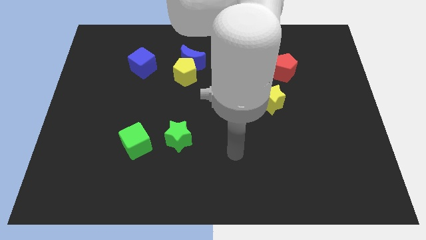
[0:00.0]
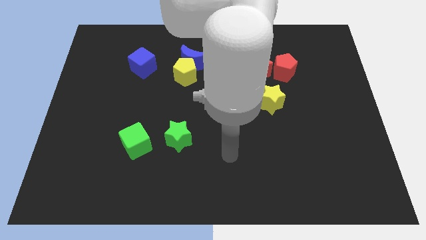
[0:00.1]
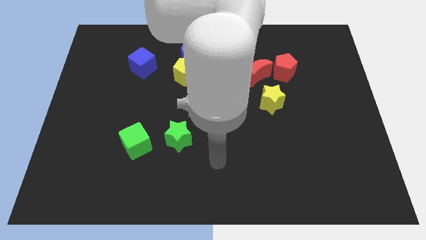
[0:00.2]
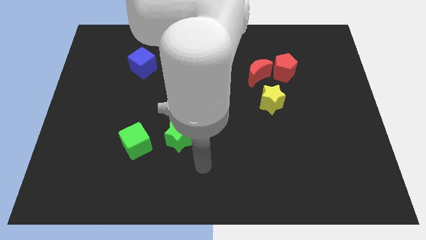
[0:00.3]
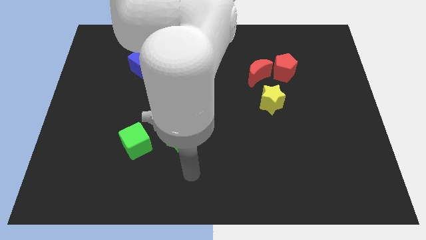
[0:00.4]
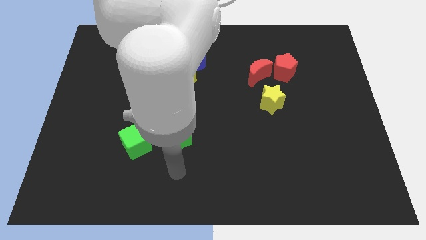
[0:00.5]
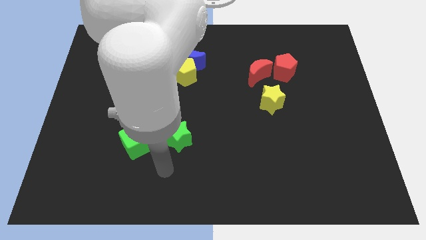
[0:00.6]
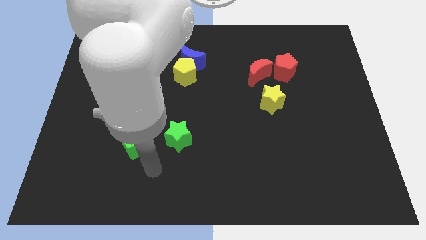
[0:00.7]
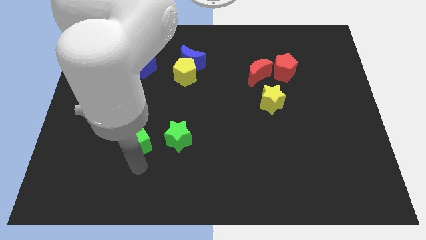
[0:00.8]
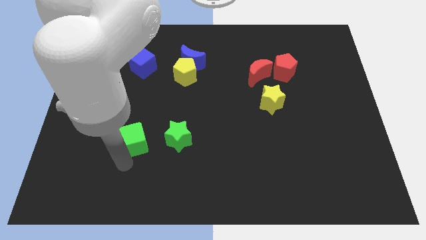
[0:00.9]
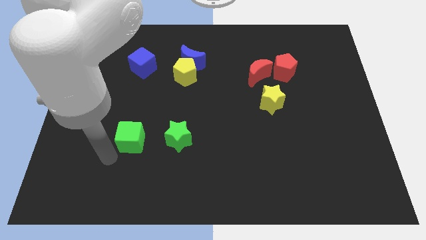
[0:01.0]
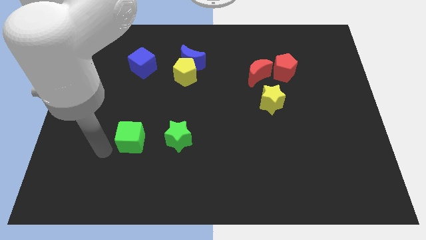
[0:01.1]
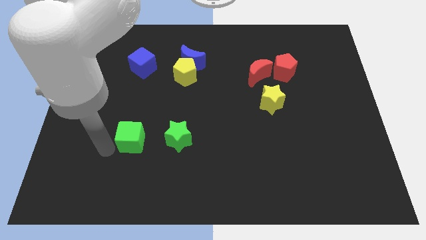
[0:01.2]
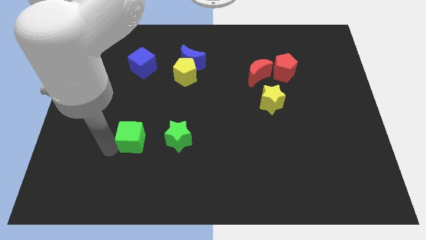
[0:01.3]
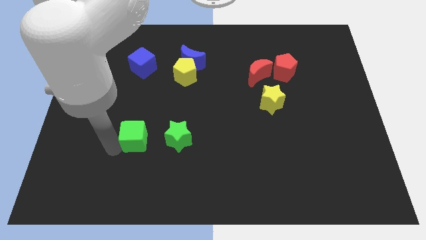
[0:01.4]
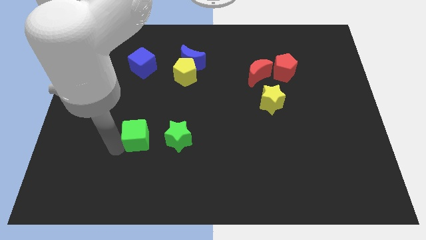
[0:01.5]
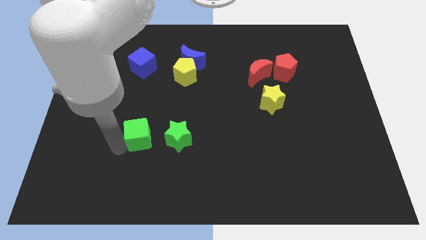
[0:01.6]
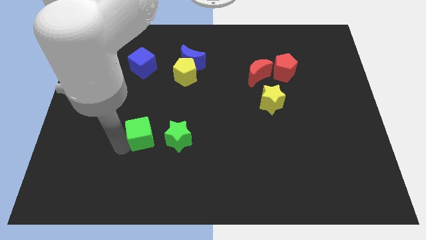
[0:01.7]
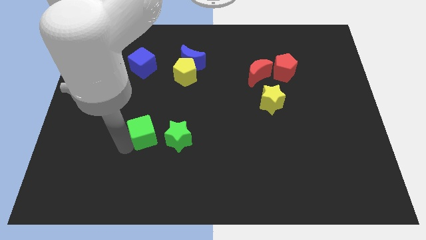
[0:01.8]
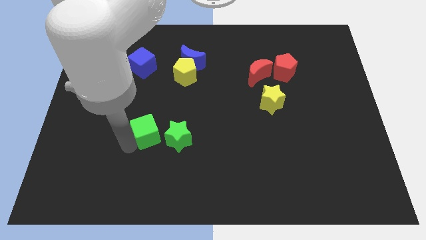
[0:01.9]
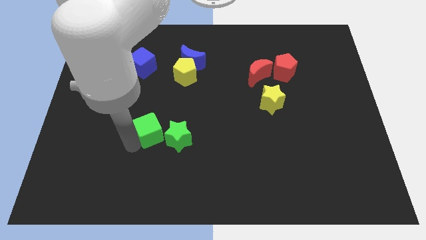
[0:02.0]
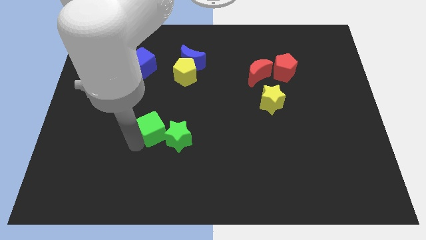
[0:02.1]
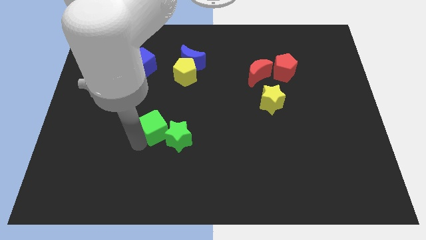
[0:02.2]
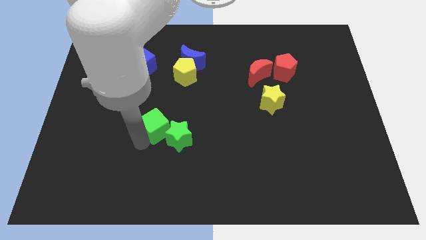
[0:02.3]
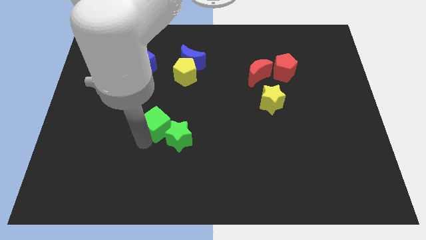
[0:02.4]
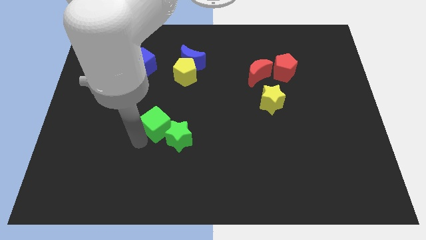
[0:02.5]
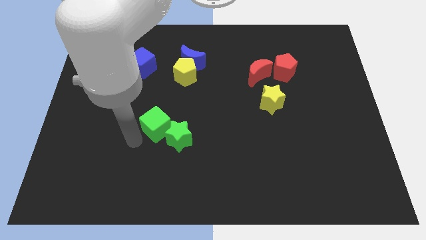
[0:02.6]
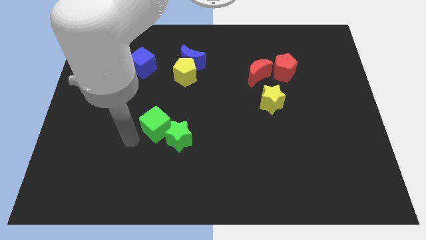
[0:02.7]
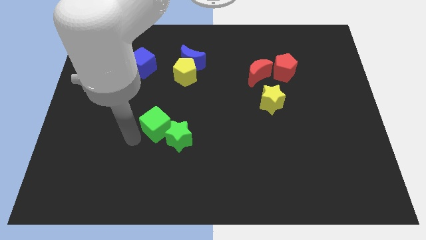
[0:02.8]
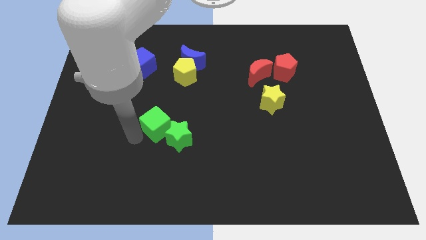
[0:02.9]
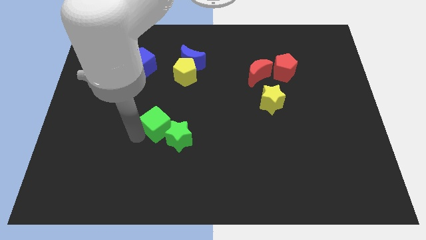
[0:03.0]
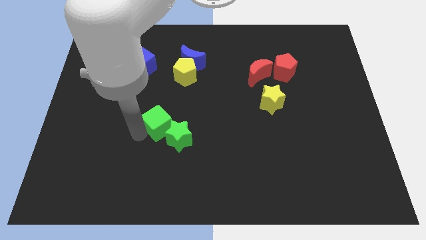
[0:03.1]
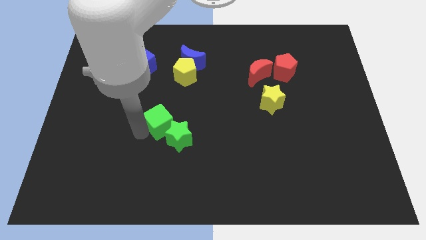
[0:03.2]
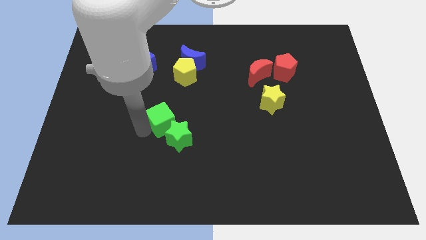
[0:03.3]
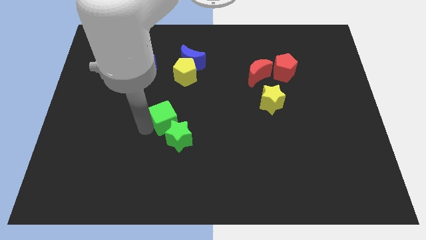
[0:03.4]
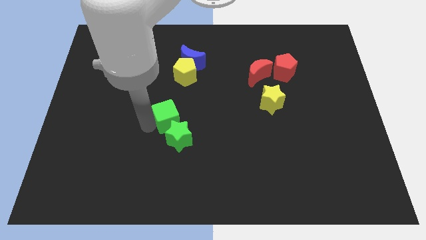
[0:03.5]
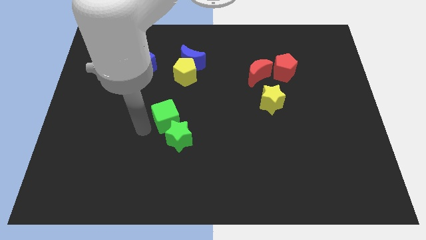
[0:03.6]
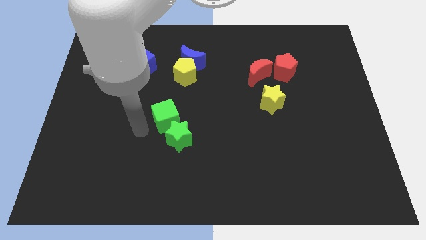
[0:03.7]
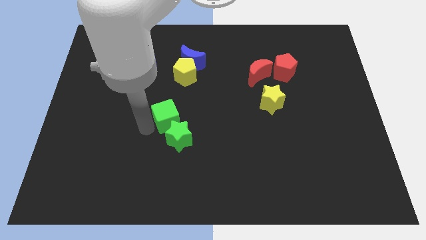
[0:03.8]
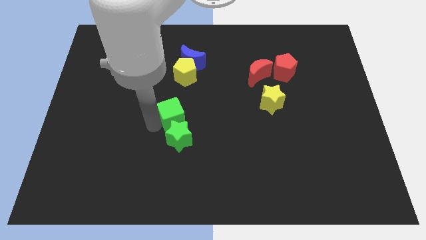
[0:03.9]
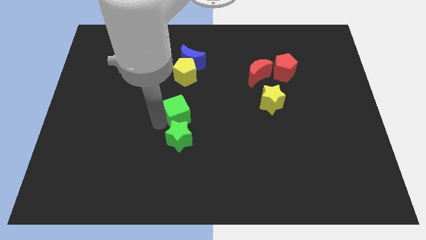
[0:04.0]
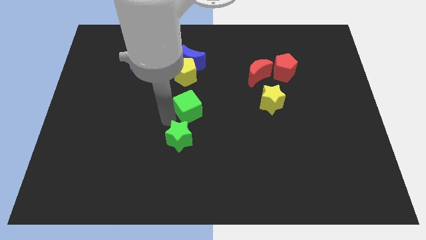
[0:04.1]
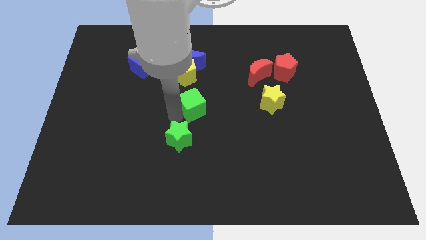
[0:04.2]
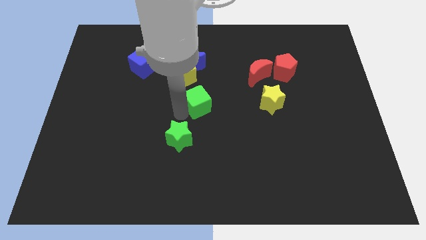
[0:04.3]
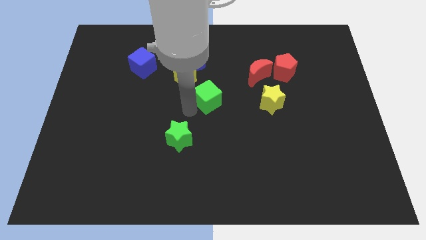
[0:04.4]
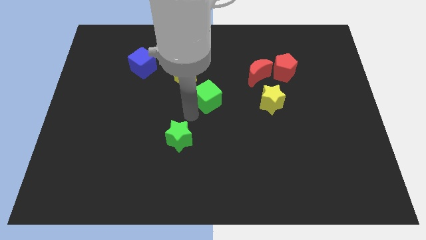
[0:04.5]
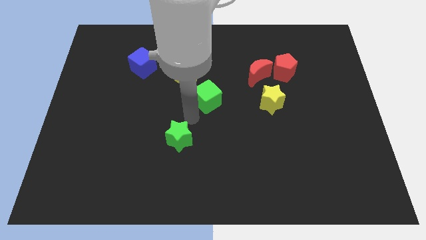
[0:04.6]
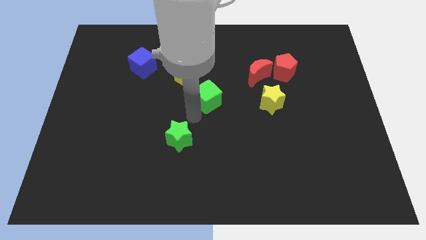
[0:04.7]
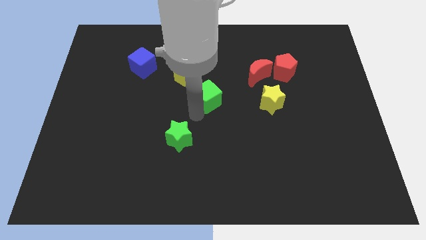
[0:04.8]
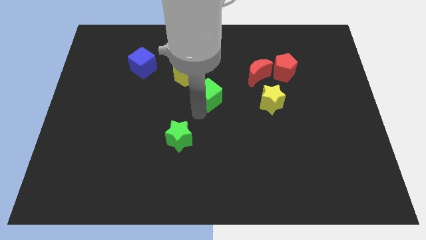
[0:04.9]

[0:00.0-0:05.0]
push the green cube diagonally up and right

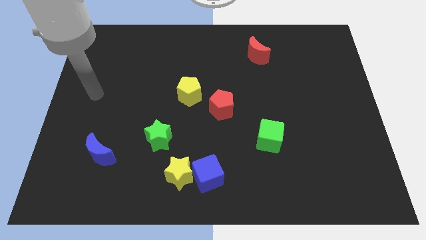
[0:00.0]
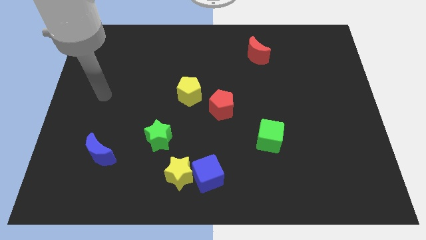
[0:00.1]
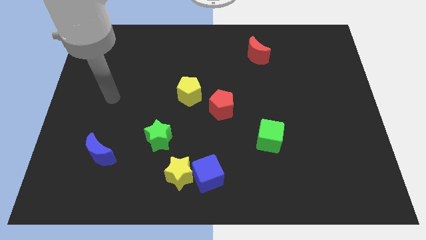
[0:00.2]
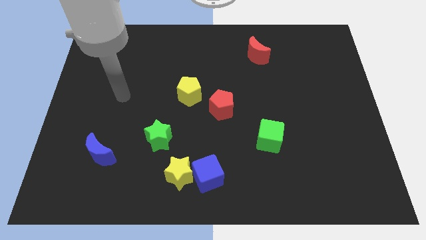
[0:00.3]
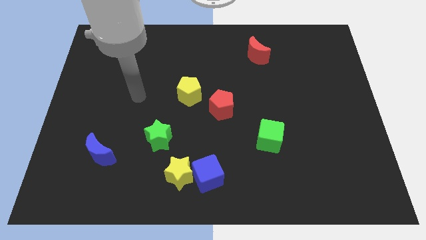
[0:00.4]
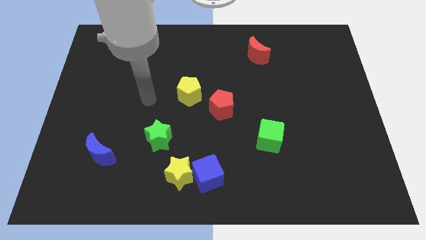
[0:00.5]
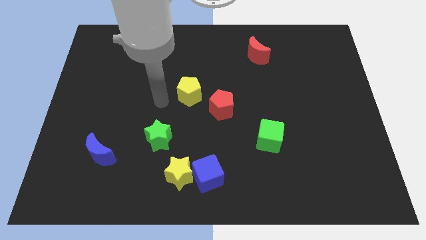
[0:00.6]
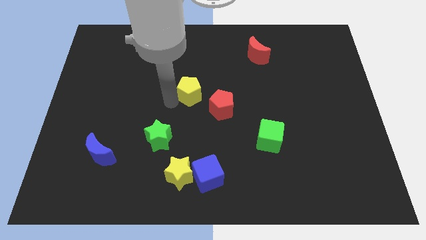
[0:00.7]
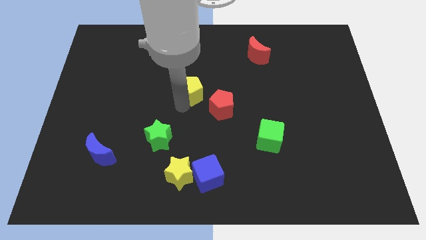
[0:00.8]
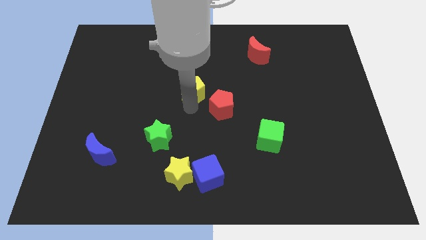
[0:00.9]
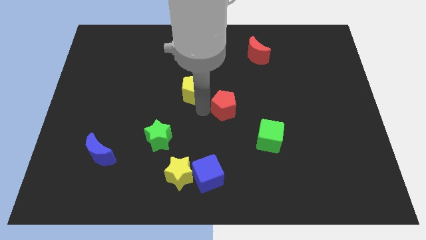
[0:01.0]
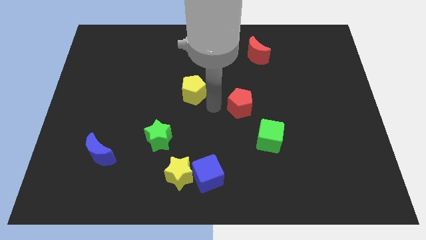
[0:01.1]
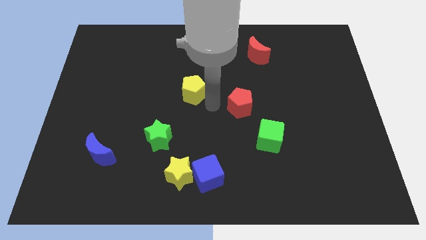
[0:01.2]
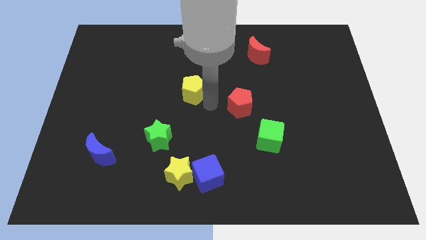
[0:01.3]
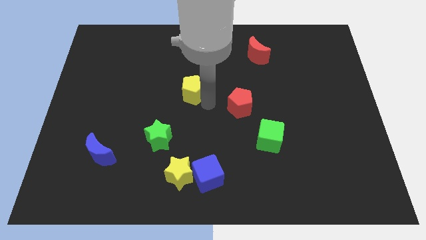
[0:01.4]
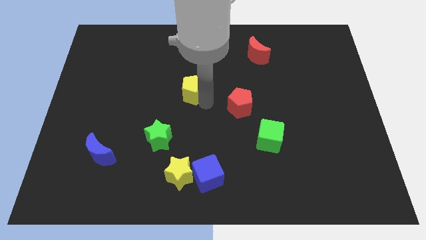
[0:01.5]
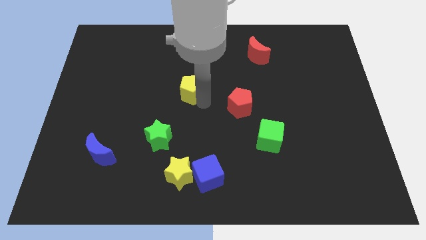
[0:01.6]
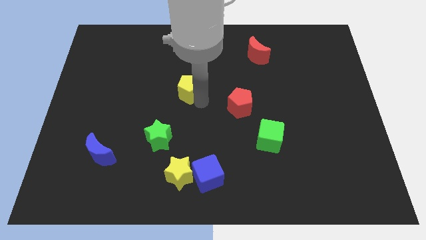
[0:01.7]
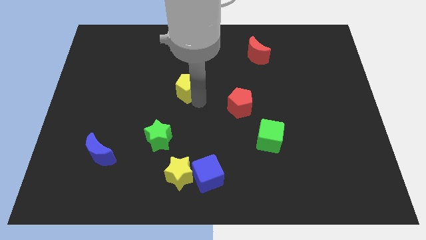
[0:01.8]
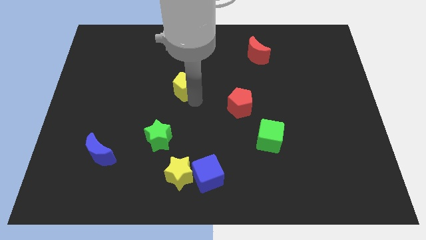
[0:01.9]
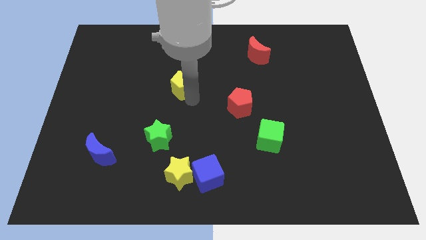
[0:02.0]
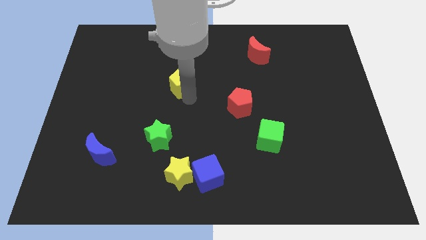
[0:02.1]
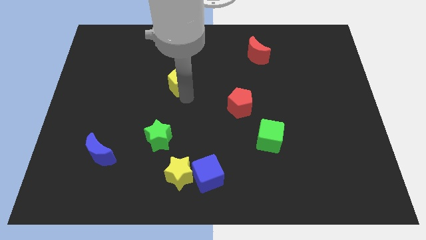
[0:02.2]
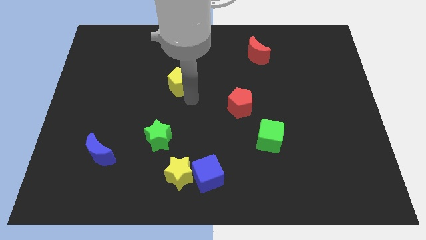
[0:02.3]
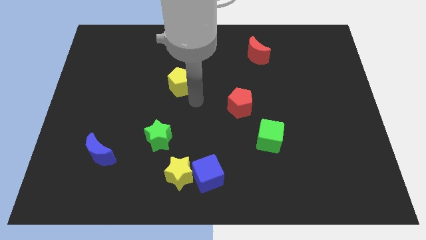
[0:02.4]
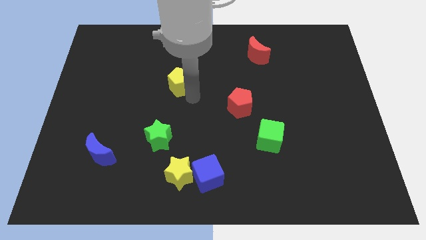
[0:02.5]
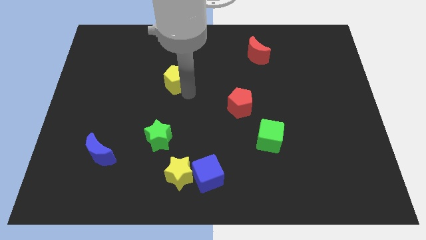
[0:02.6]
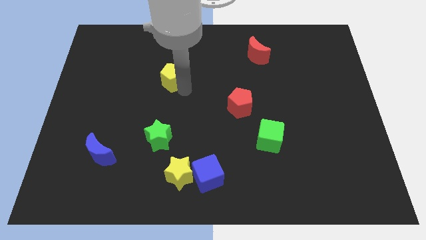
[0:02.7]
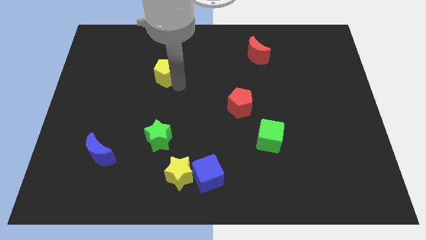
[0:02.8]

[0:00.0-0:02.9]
push the yellow pentagon a bit up and then to the left
